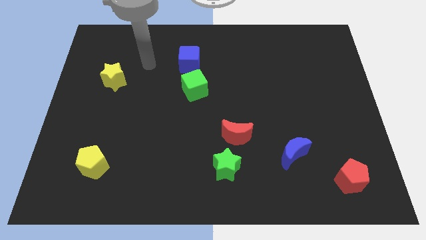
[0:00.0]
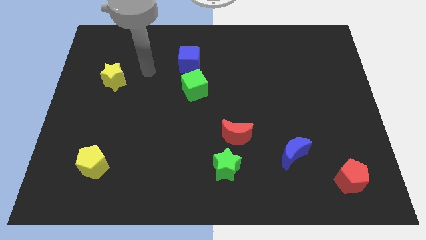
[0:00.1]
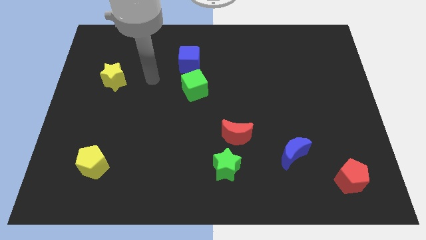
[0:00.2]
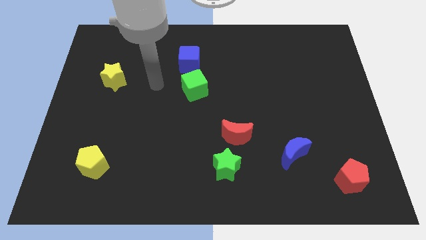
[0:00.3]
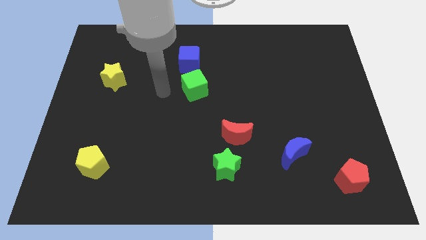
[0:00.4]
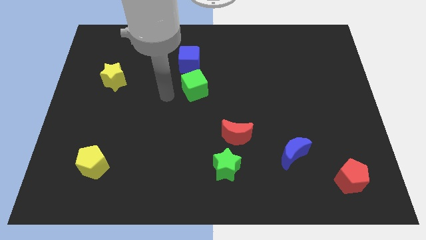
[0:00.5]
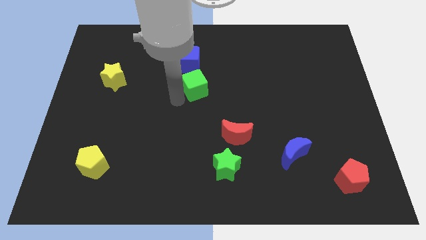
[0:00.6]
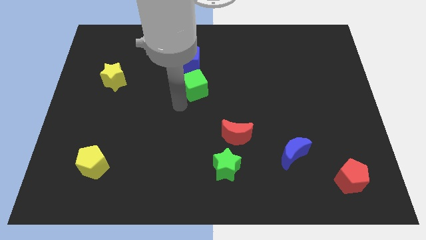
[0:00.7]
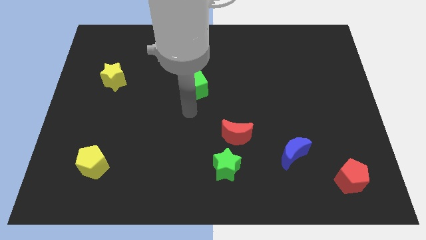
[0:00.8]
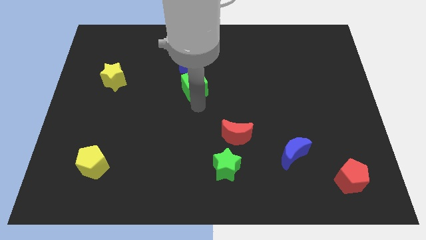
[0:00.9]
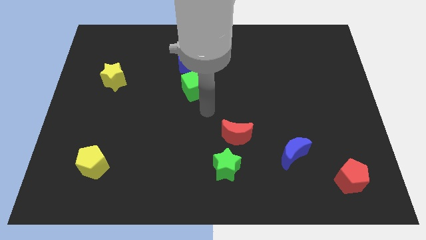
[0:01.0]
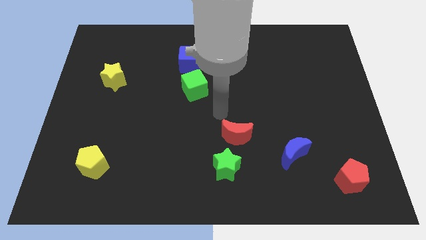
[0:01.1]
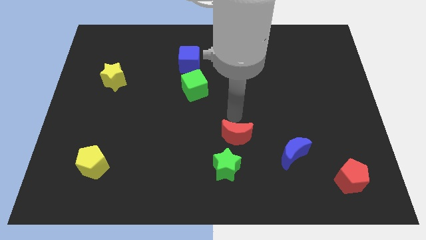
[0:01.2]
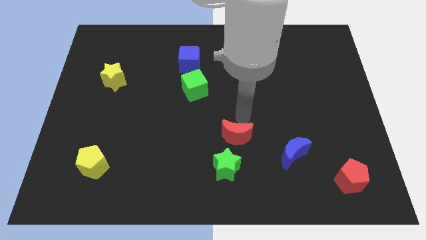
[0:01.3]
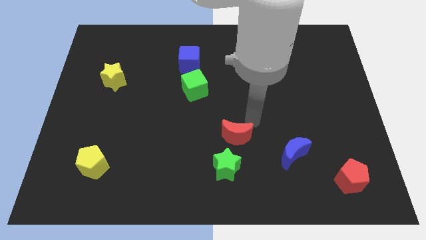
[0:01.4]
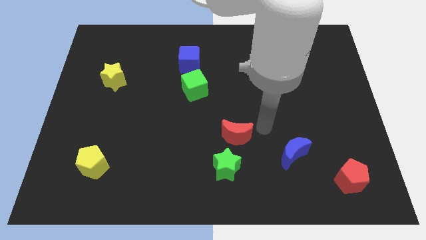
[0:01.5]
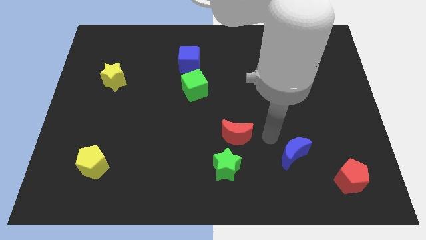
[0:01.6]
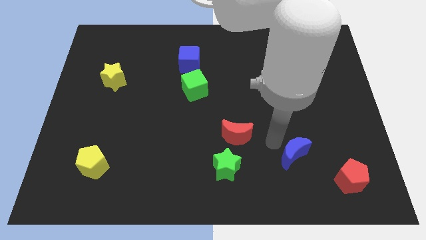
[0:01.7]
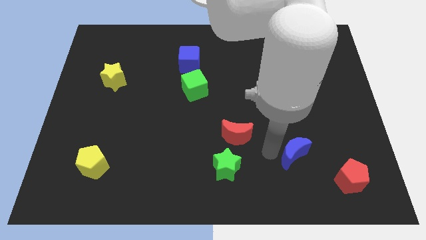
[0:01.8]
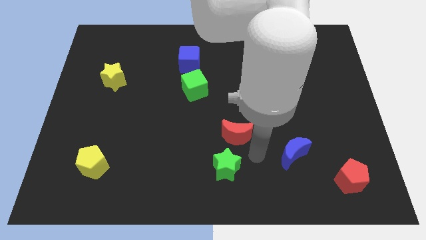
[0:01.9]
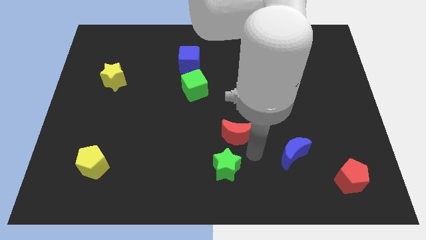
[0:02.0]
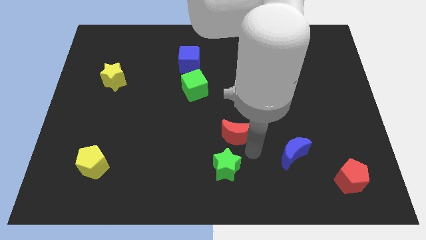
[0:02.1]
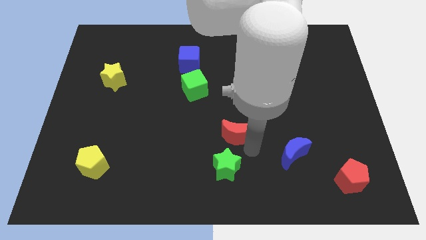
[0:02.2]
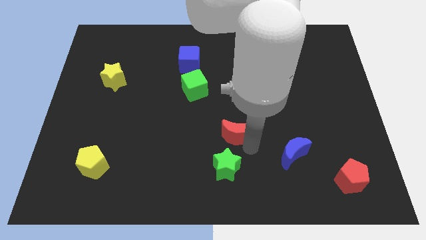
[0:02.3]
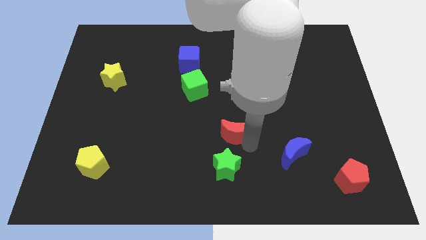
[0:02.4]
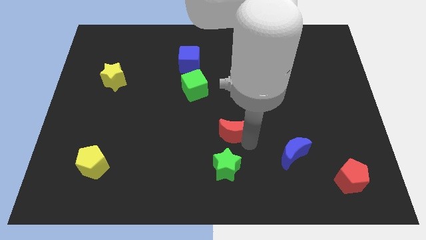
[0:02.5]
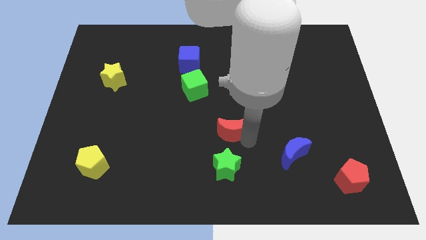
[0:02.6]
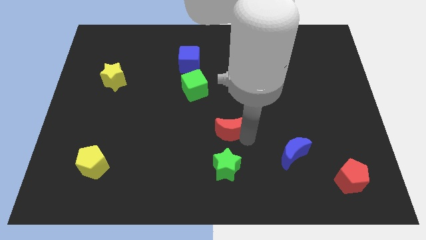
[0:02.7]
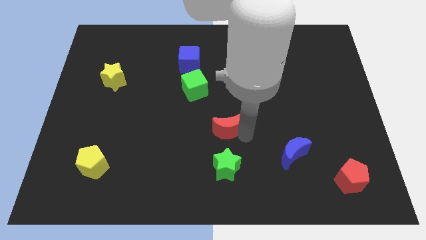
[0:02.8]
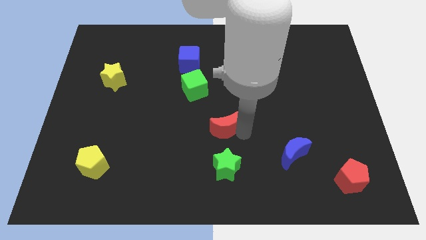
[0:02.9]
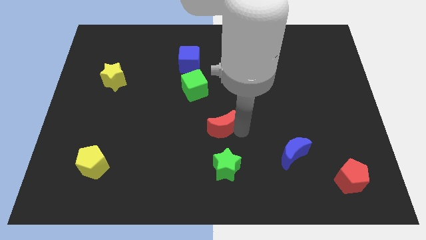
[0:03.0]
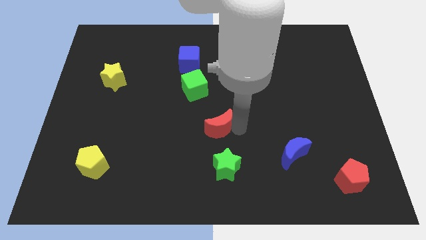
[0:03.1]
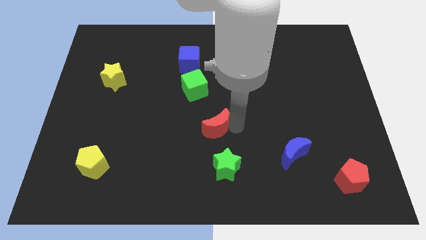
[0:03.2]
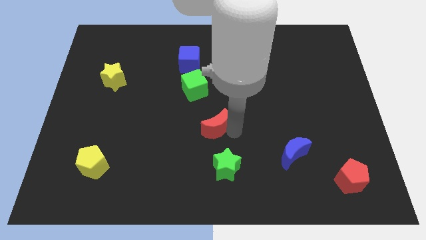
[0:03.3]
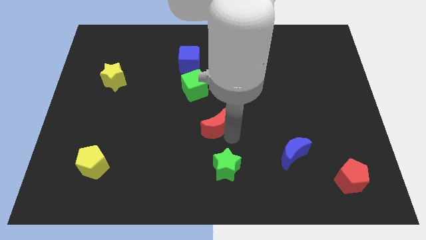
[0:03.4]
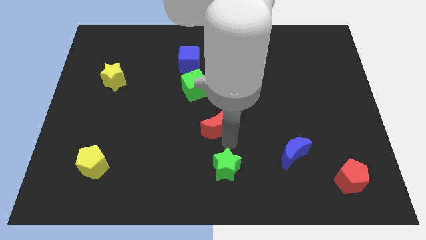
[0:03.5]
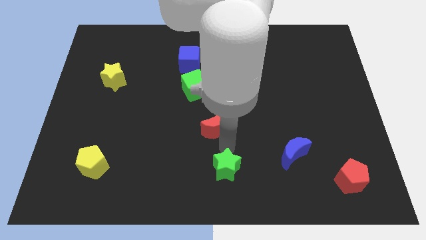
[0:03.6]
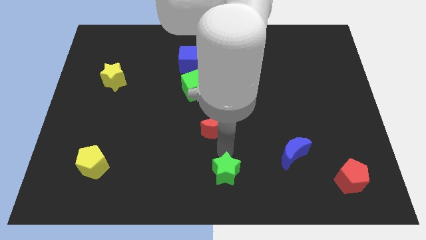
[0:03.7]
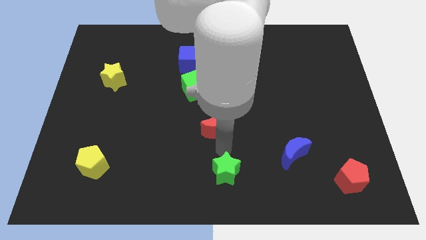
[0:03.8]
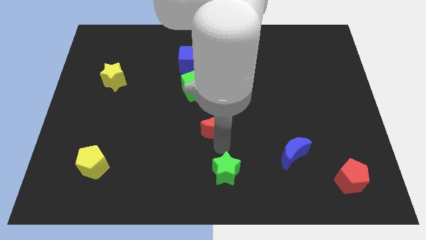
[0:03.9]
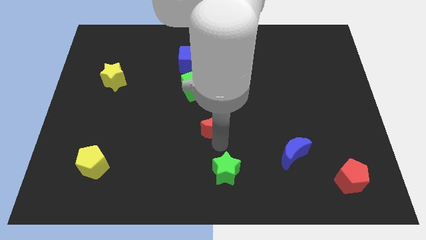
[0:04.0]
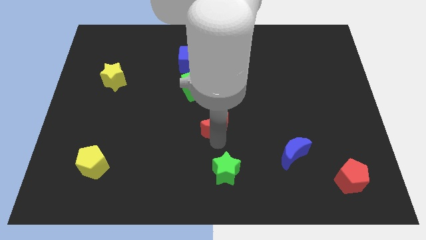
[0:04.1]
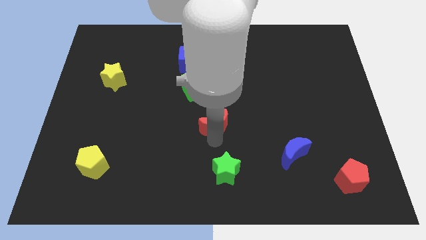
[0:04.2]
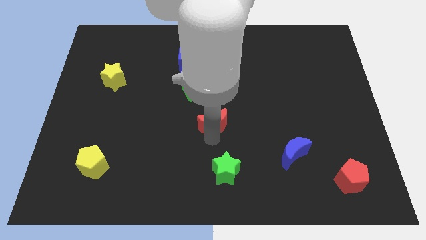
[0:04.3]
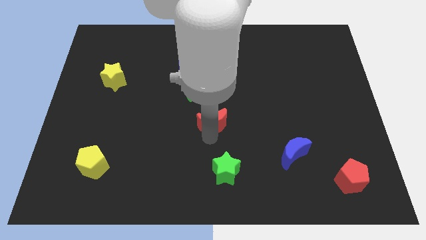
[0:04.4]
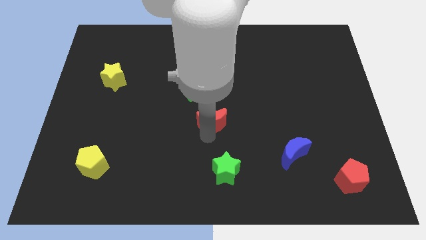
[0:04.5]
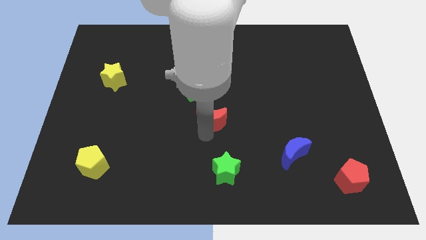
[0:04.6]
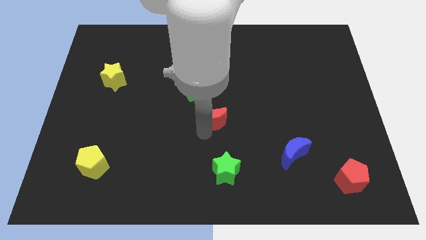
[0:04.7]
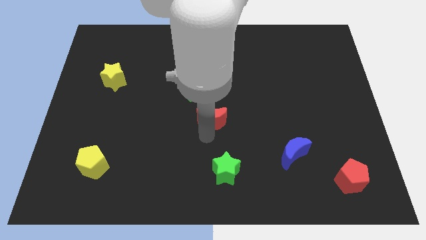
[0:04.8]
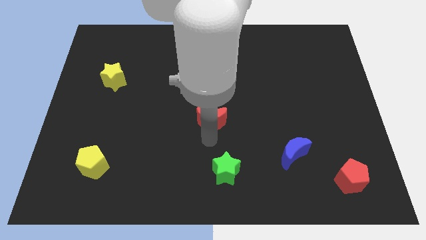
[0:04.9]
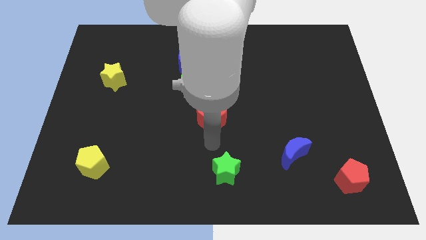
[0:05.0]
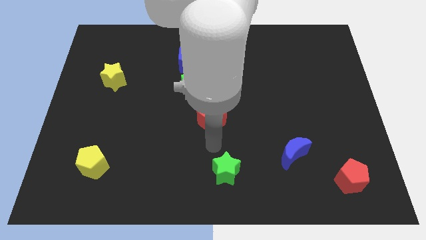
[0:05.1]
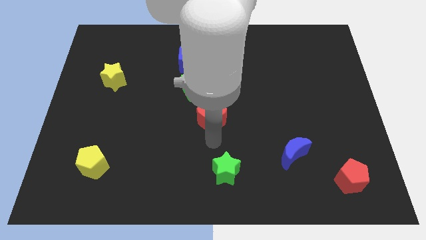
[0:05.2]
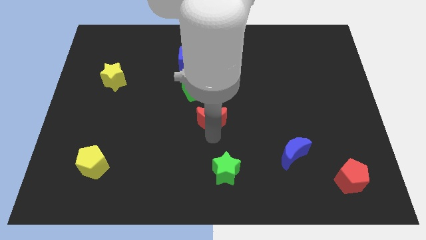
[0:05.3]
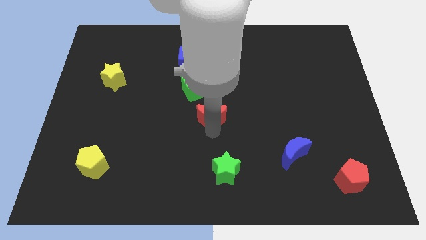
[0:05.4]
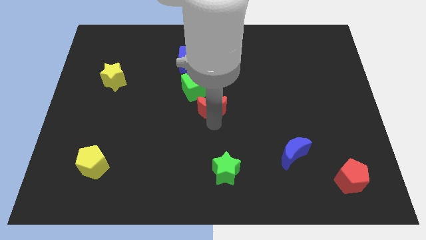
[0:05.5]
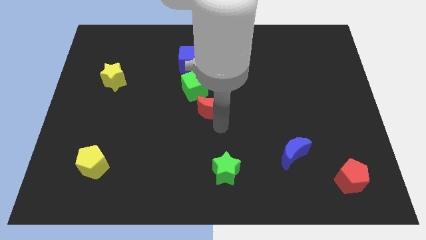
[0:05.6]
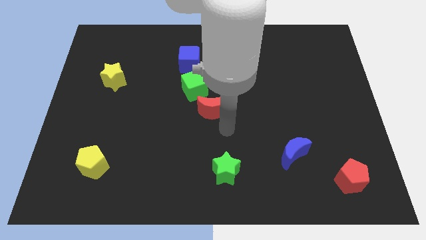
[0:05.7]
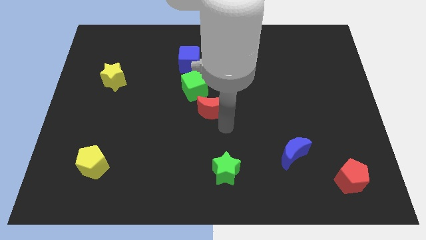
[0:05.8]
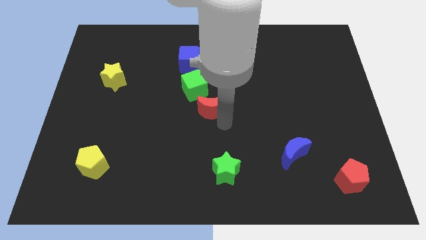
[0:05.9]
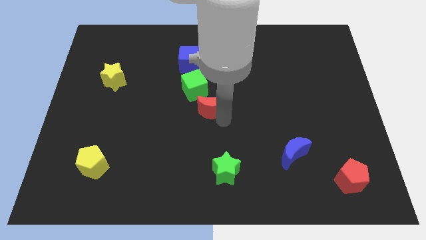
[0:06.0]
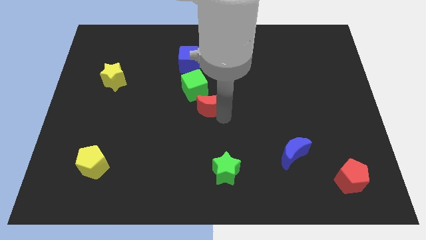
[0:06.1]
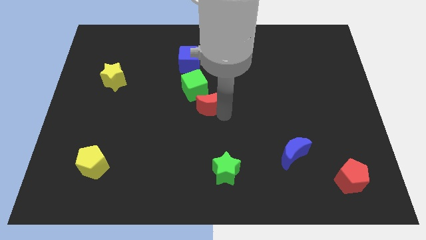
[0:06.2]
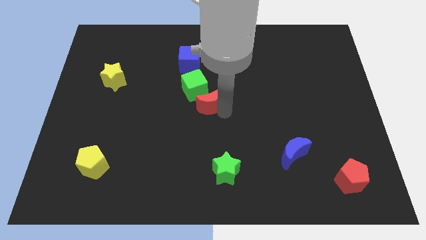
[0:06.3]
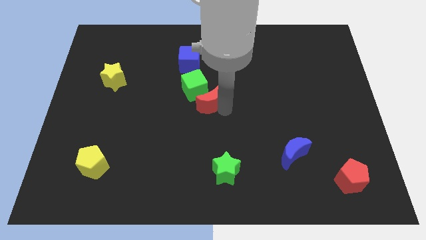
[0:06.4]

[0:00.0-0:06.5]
push the red moon to the green cube
